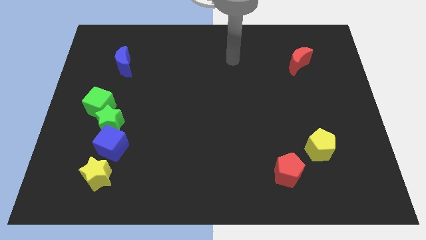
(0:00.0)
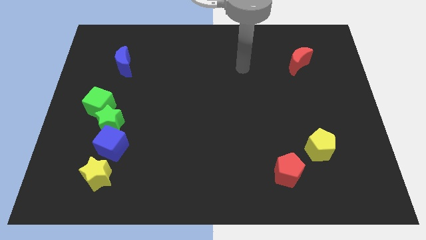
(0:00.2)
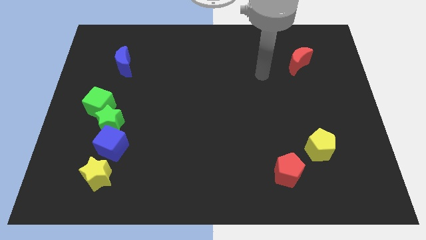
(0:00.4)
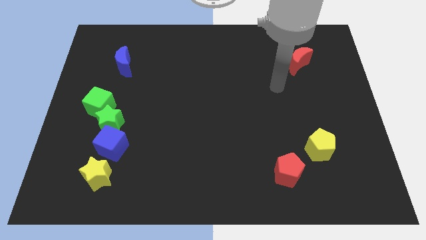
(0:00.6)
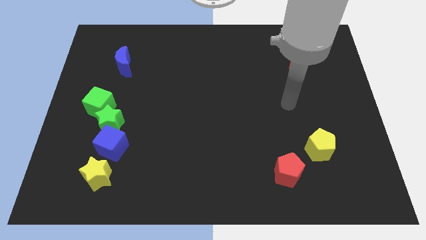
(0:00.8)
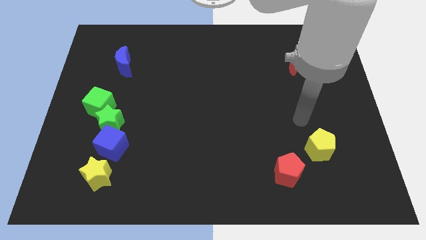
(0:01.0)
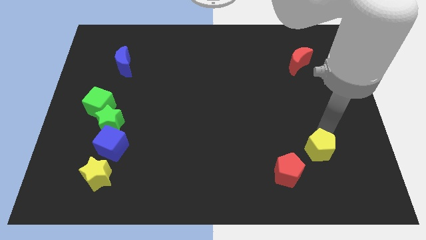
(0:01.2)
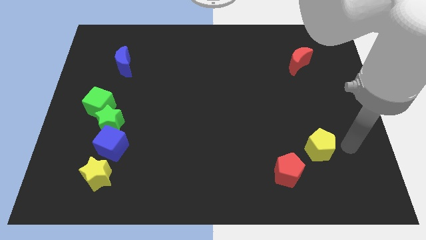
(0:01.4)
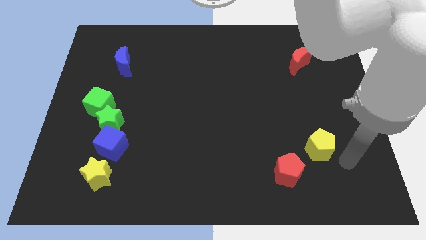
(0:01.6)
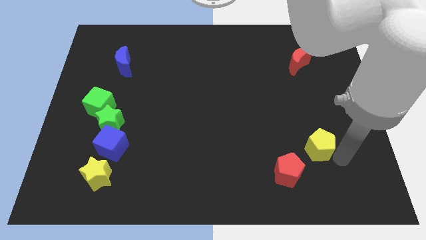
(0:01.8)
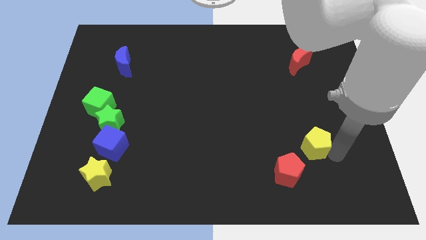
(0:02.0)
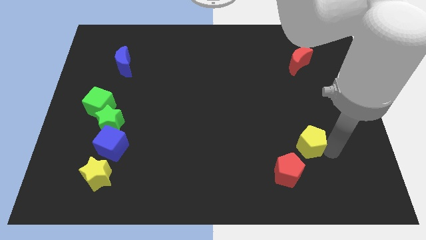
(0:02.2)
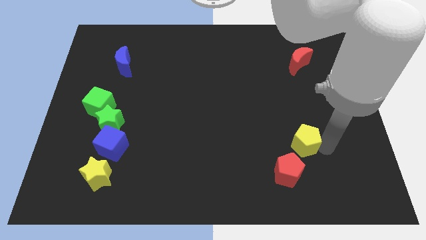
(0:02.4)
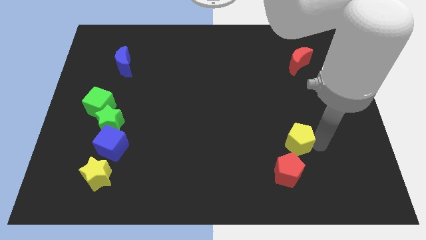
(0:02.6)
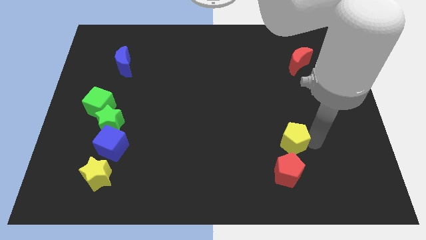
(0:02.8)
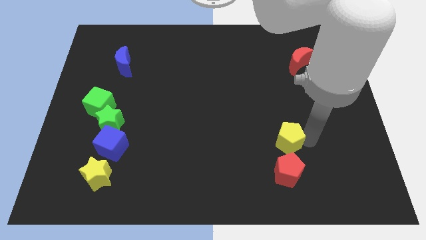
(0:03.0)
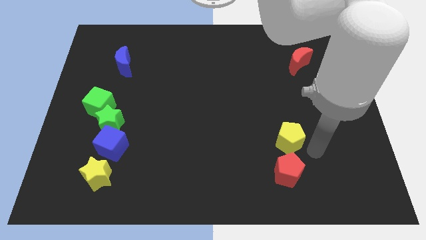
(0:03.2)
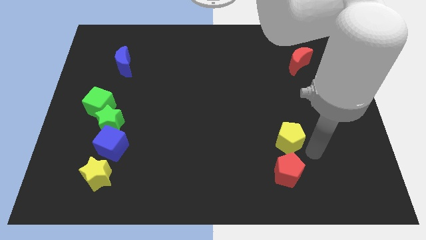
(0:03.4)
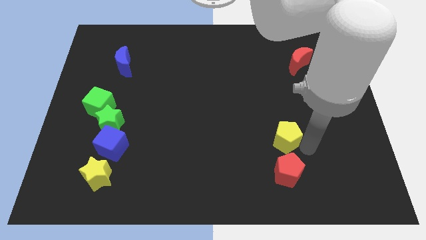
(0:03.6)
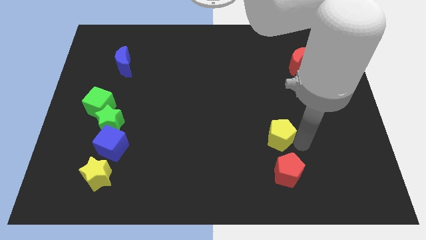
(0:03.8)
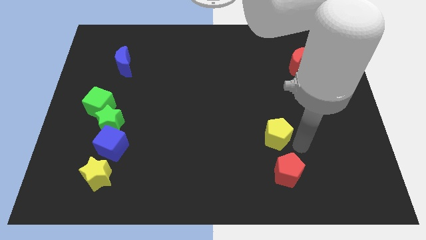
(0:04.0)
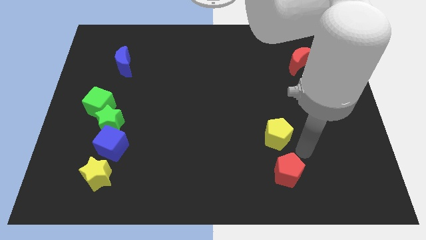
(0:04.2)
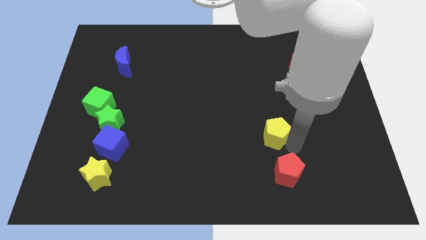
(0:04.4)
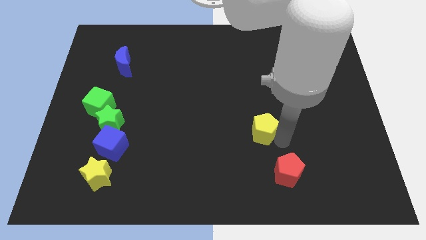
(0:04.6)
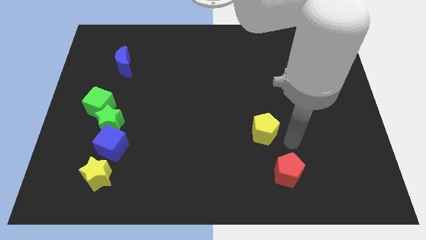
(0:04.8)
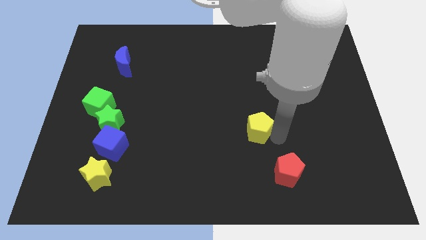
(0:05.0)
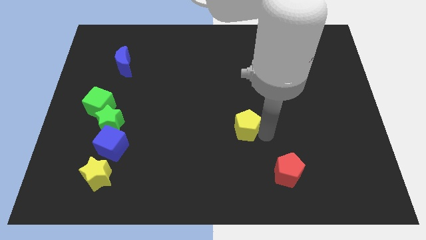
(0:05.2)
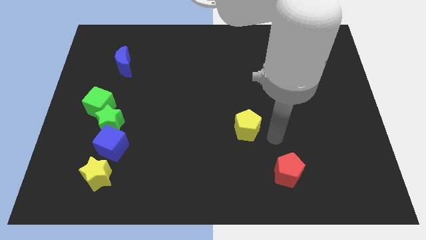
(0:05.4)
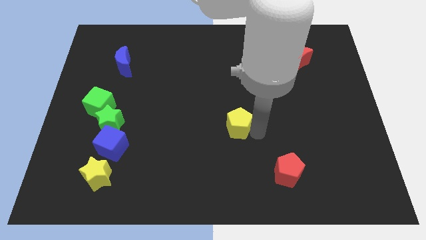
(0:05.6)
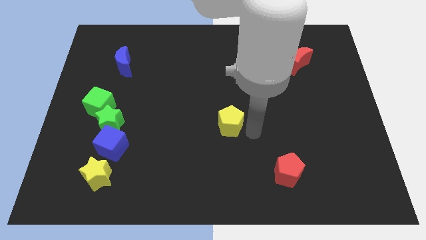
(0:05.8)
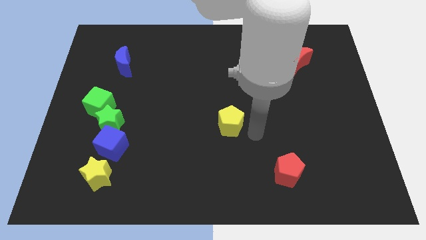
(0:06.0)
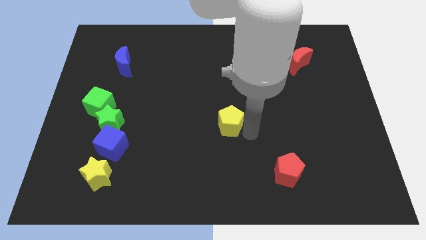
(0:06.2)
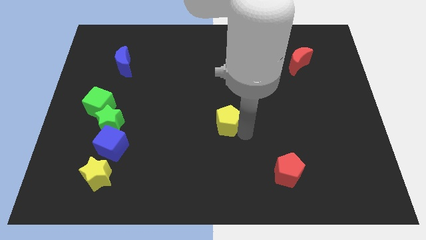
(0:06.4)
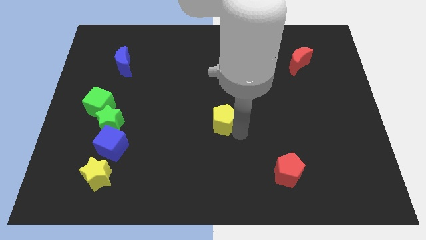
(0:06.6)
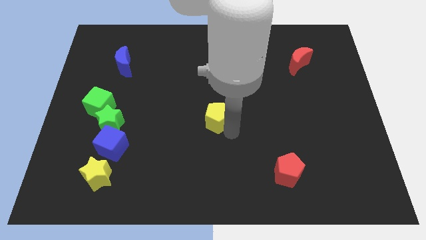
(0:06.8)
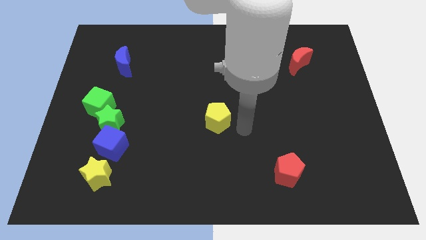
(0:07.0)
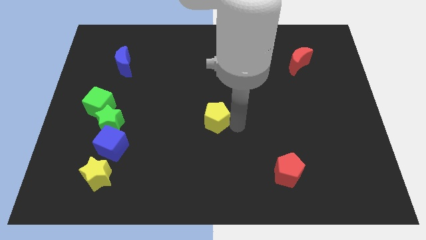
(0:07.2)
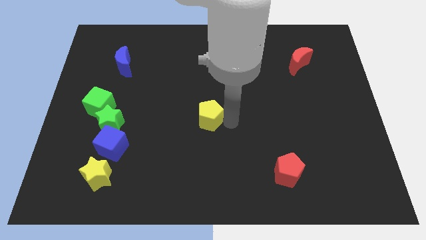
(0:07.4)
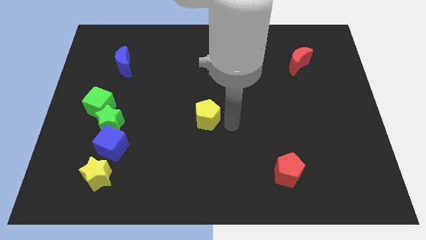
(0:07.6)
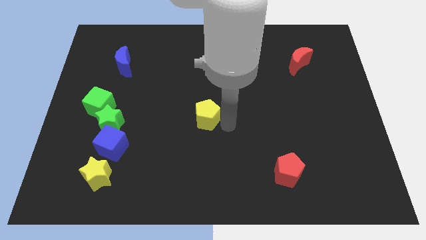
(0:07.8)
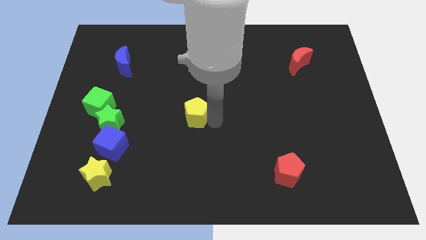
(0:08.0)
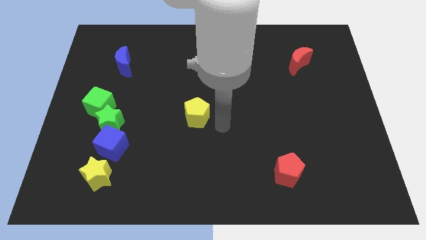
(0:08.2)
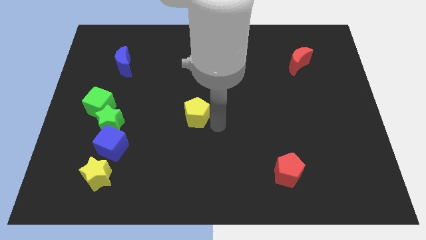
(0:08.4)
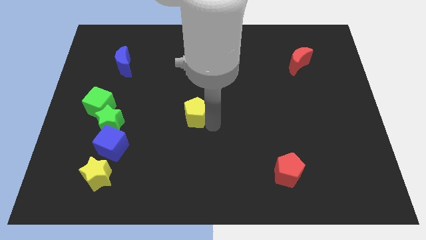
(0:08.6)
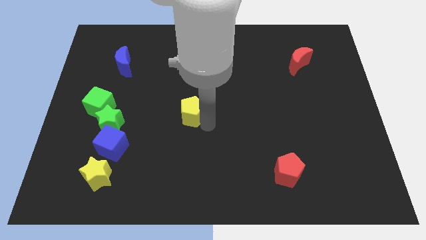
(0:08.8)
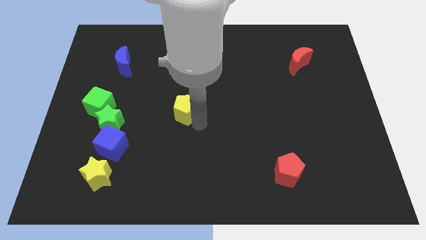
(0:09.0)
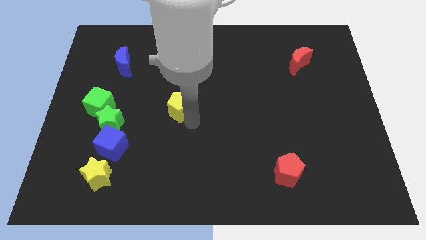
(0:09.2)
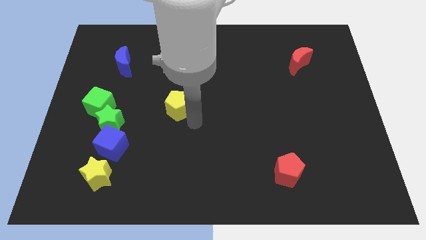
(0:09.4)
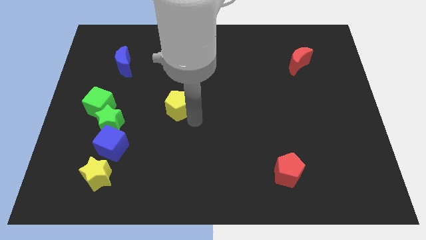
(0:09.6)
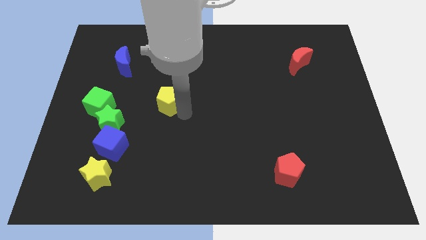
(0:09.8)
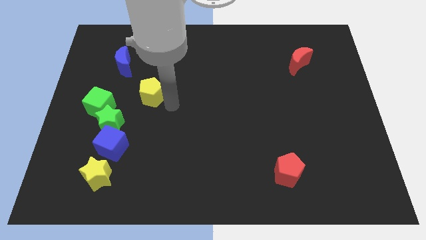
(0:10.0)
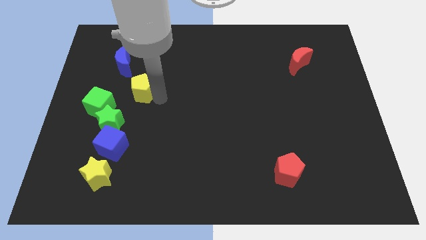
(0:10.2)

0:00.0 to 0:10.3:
move the yellow pentagon diagonally up and to the right of the green cube

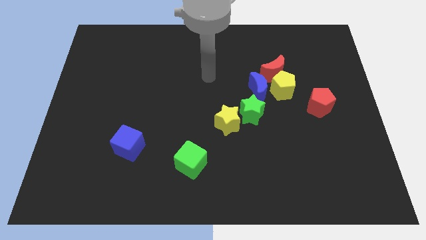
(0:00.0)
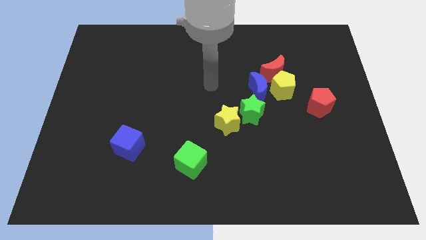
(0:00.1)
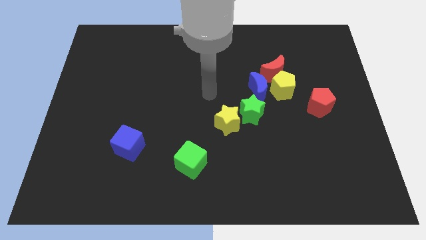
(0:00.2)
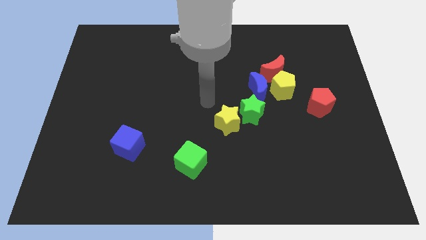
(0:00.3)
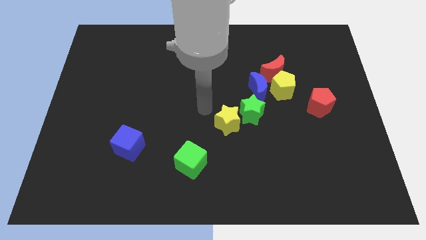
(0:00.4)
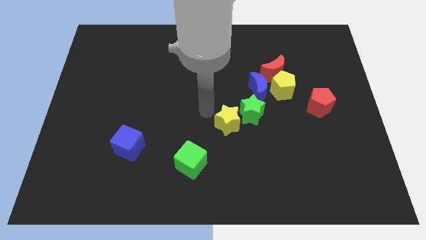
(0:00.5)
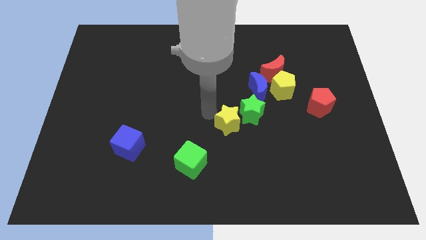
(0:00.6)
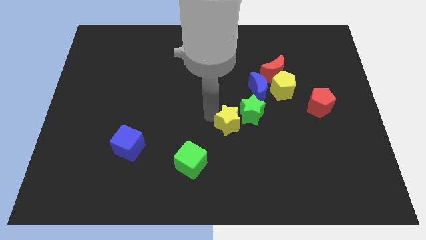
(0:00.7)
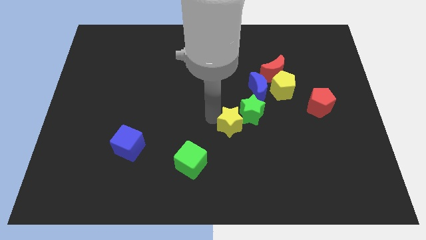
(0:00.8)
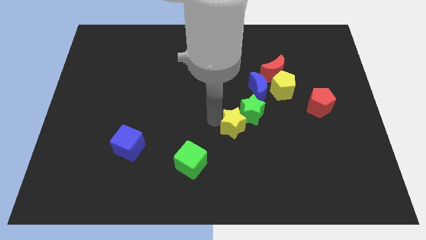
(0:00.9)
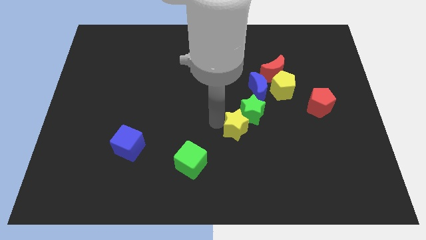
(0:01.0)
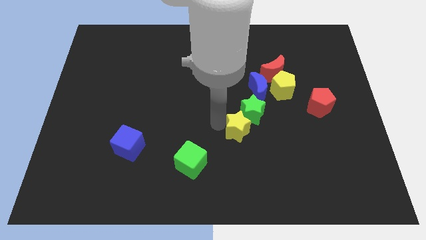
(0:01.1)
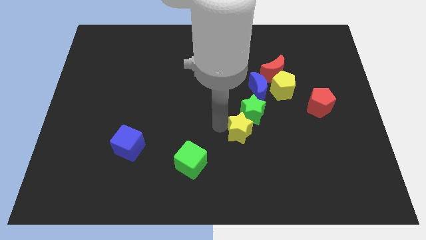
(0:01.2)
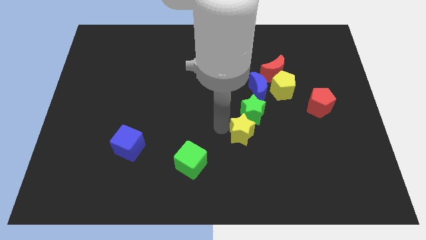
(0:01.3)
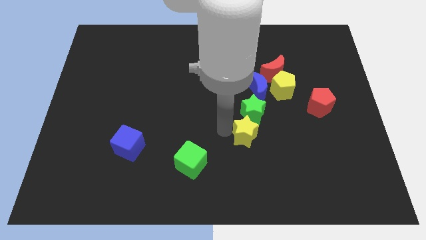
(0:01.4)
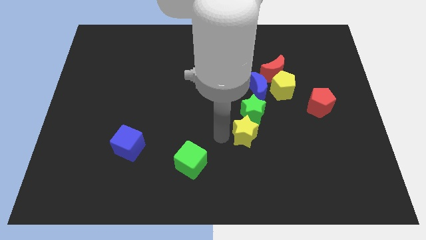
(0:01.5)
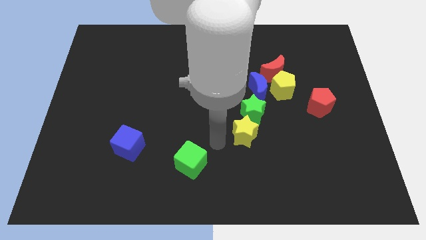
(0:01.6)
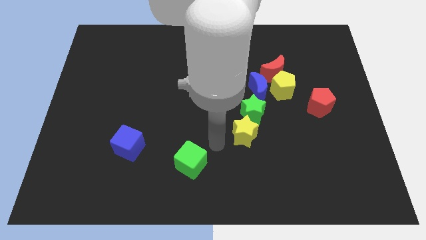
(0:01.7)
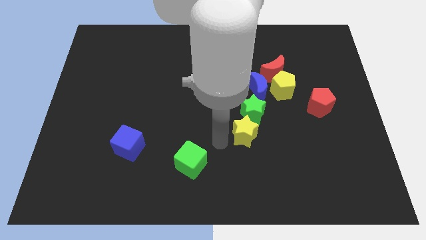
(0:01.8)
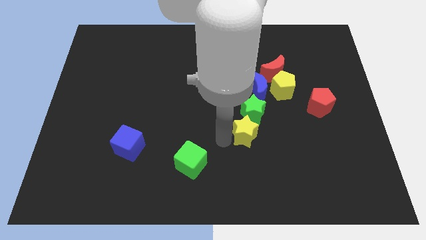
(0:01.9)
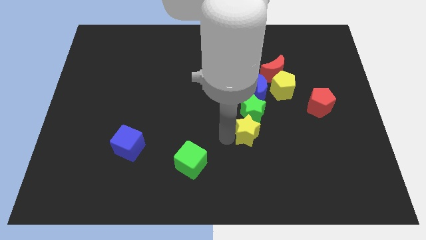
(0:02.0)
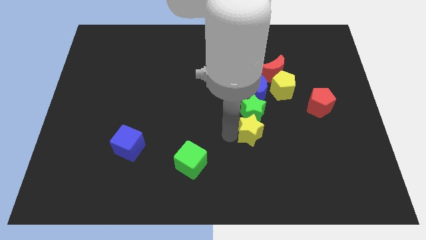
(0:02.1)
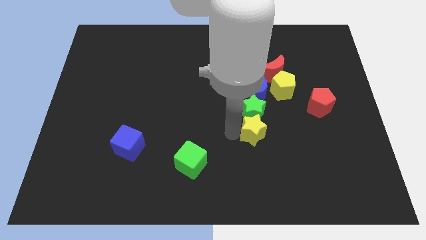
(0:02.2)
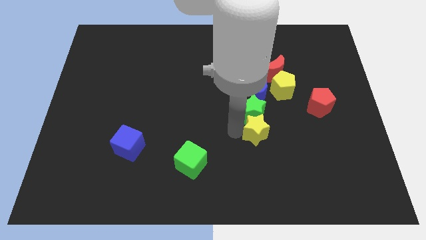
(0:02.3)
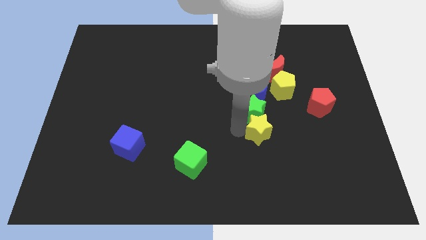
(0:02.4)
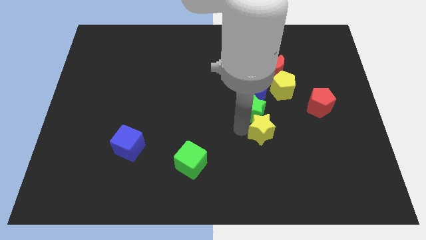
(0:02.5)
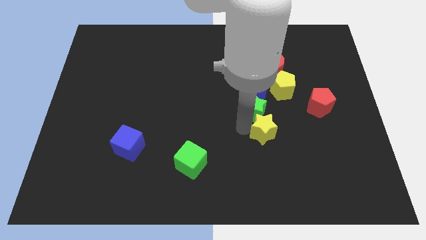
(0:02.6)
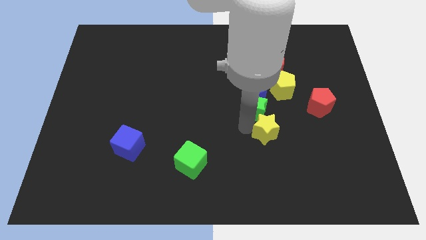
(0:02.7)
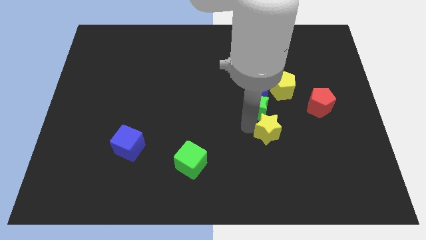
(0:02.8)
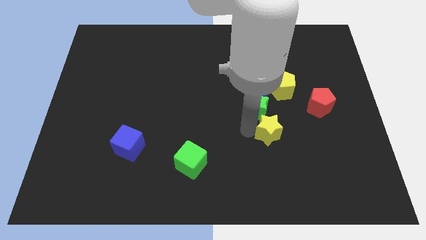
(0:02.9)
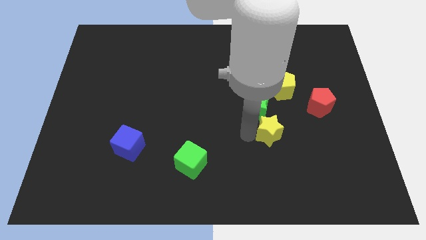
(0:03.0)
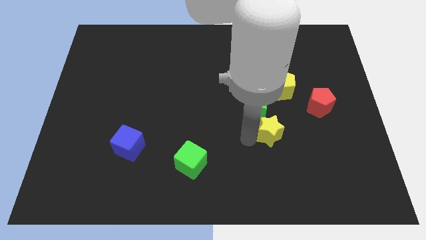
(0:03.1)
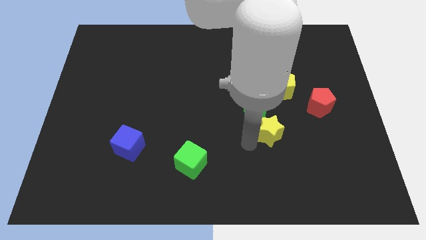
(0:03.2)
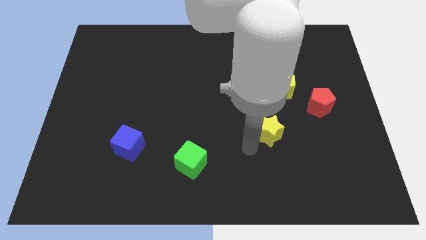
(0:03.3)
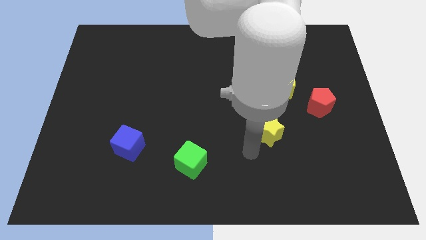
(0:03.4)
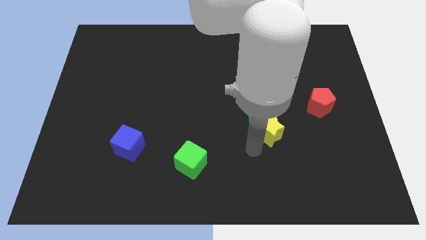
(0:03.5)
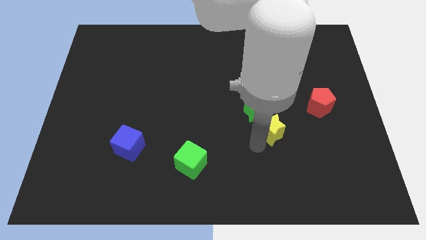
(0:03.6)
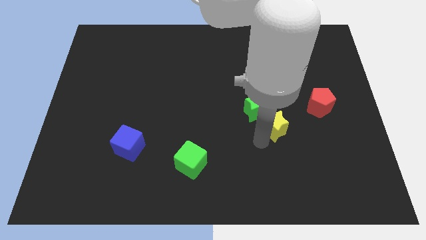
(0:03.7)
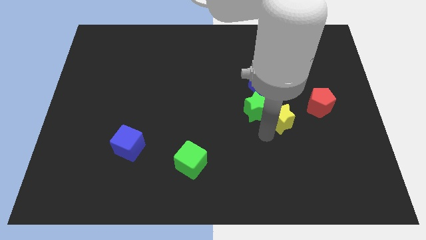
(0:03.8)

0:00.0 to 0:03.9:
move the yellow star right of the green star
